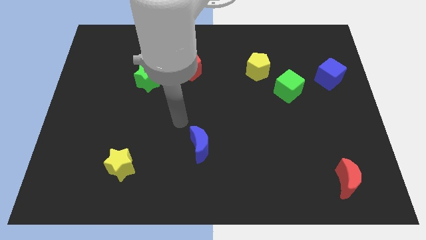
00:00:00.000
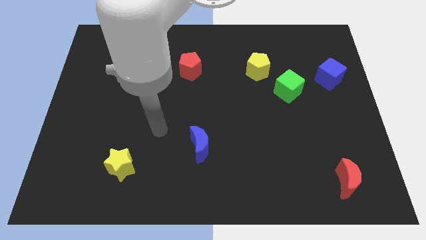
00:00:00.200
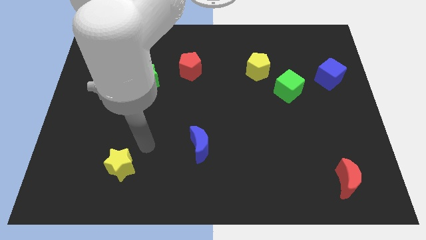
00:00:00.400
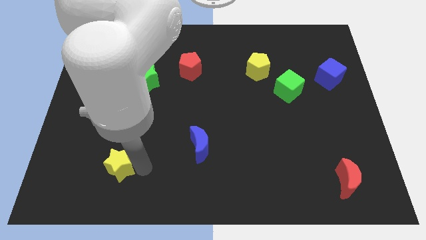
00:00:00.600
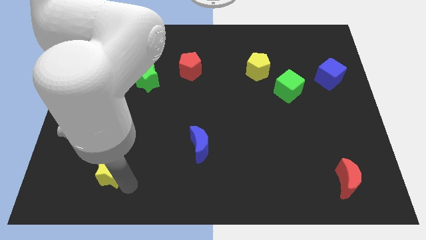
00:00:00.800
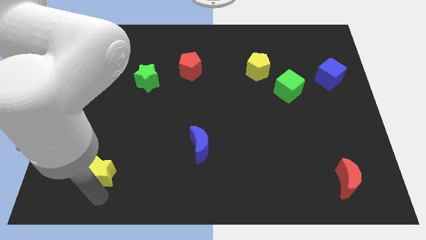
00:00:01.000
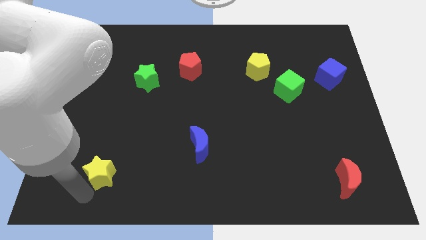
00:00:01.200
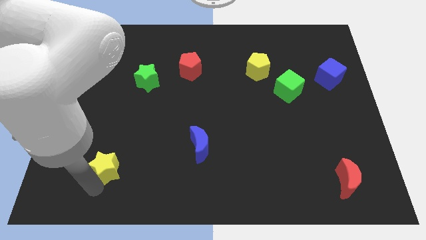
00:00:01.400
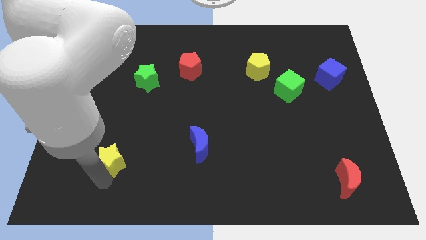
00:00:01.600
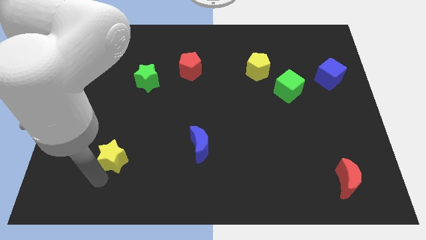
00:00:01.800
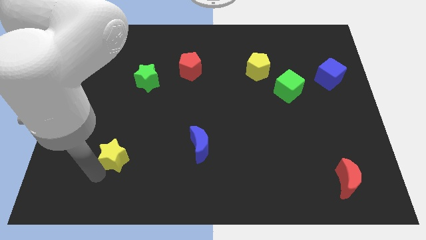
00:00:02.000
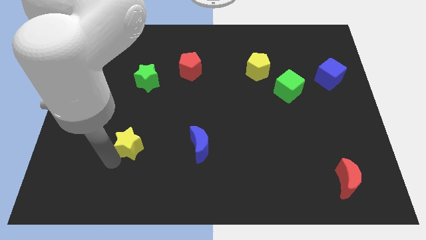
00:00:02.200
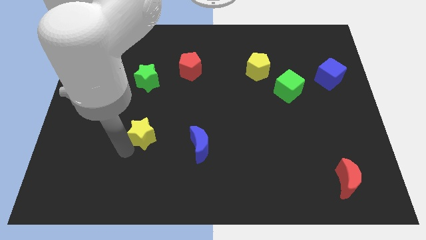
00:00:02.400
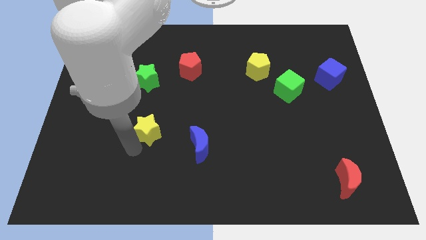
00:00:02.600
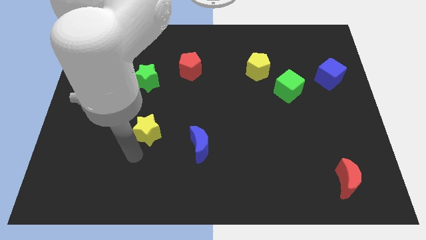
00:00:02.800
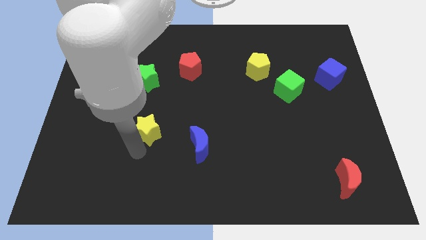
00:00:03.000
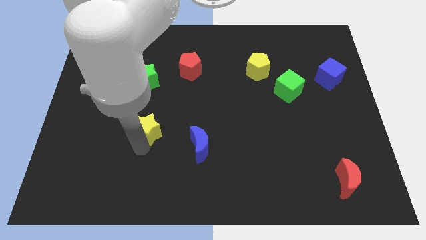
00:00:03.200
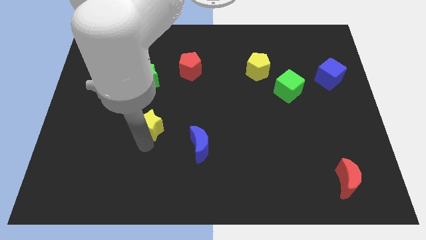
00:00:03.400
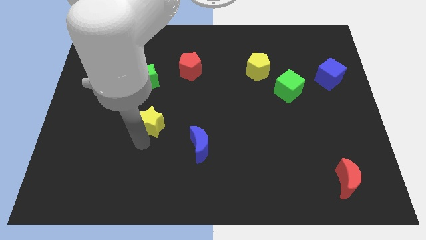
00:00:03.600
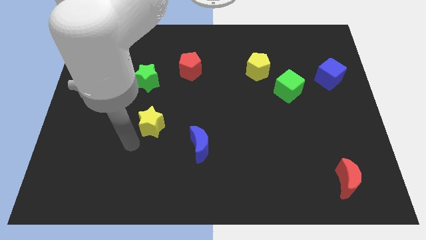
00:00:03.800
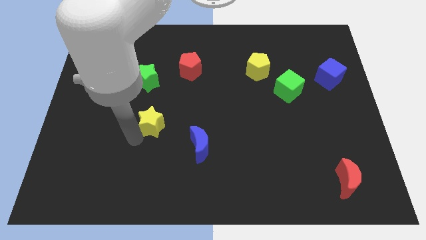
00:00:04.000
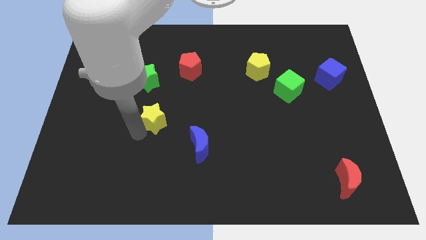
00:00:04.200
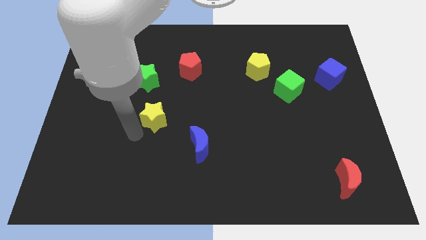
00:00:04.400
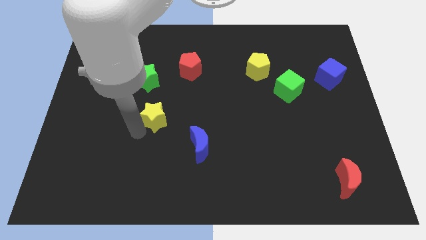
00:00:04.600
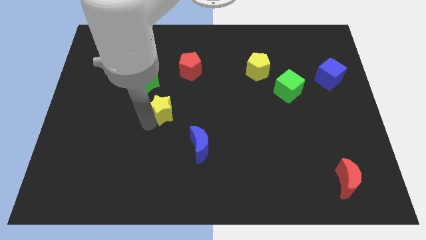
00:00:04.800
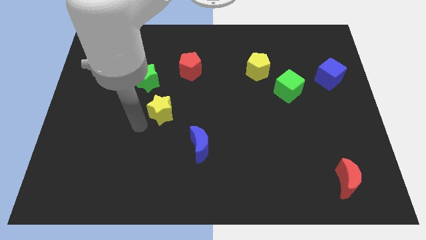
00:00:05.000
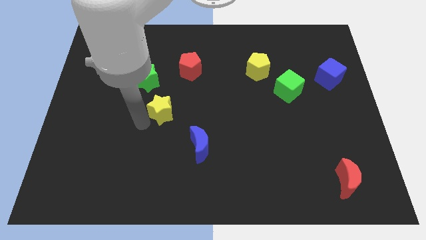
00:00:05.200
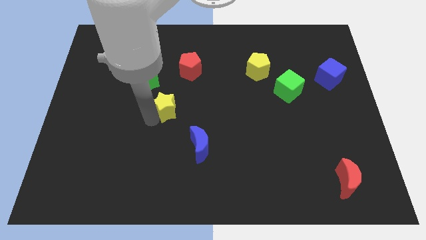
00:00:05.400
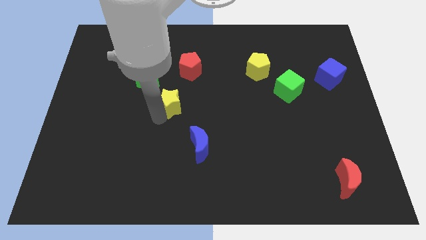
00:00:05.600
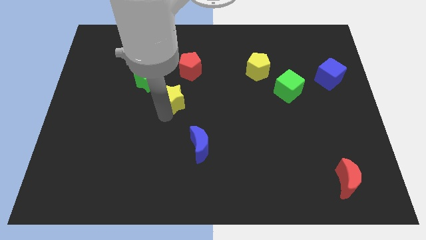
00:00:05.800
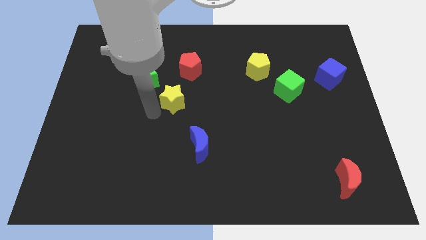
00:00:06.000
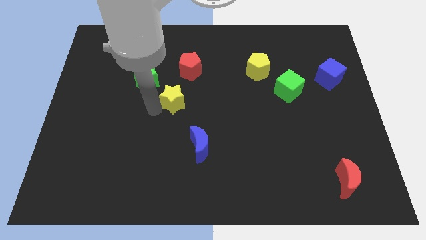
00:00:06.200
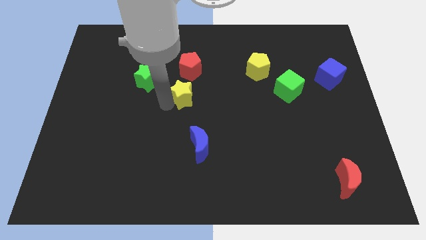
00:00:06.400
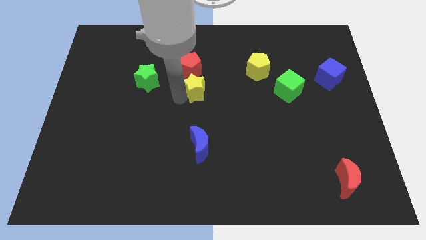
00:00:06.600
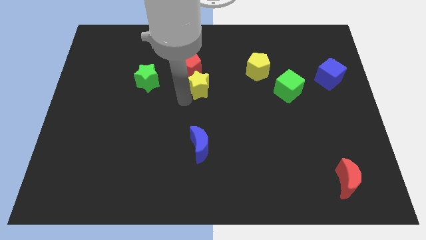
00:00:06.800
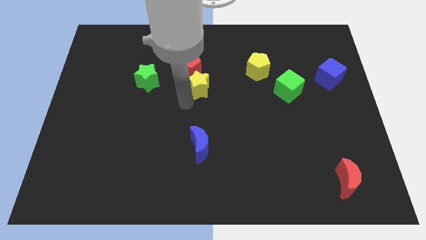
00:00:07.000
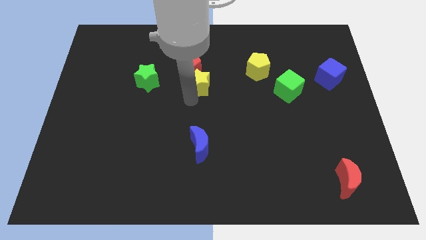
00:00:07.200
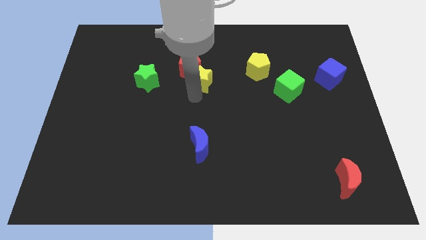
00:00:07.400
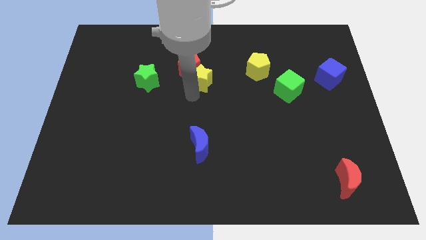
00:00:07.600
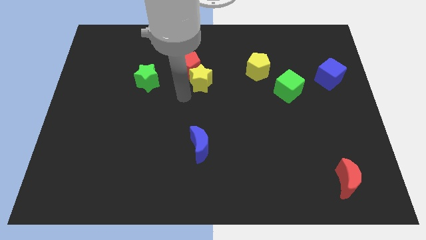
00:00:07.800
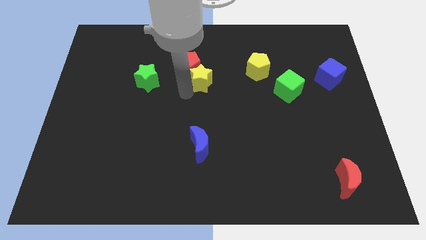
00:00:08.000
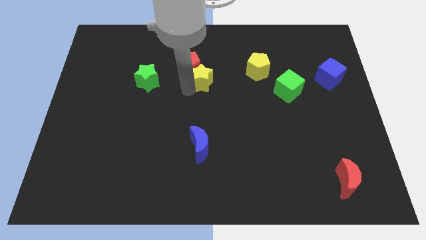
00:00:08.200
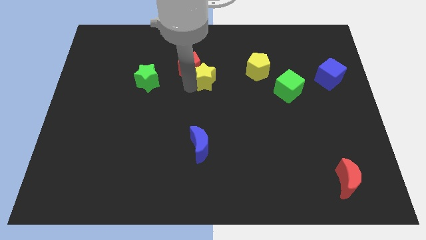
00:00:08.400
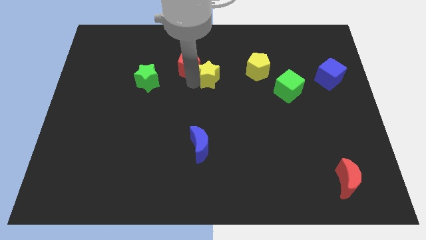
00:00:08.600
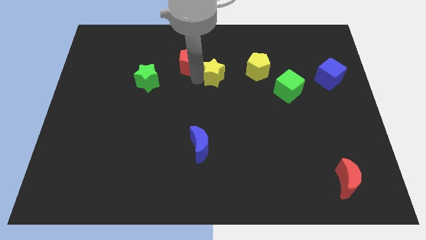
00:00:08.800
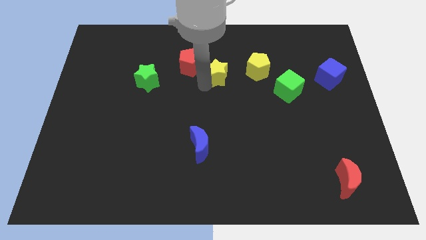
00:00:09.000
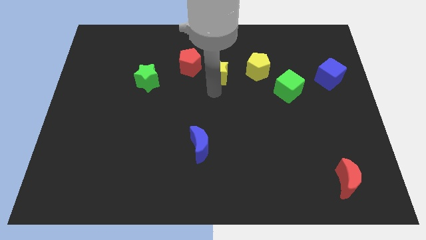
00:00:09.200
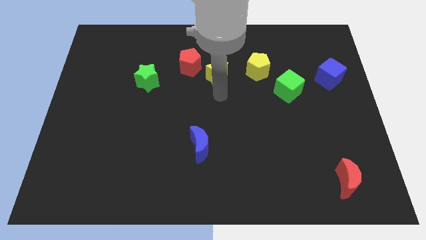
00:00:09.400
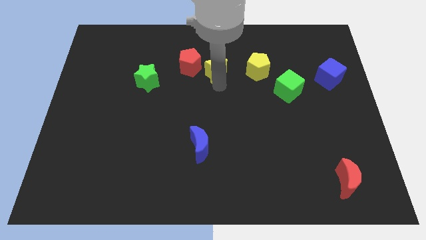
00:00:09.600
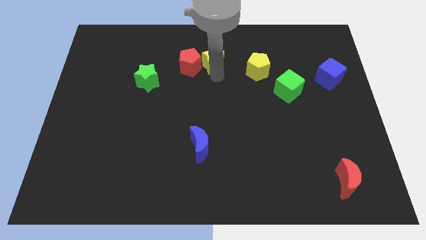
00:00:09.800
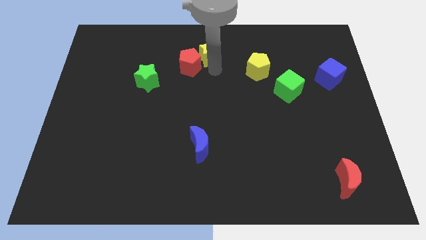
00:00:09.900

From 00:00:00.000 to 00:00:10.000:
put the yellow star to the top side

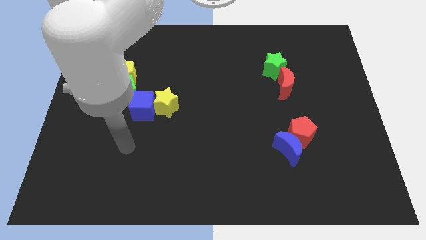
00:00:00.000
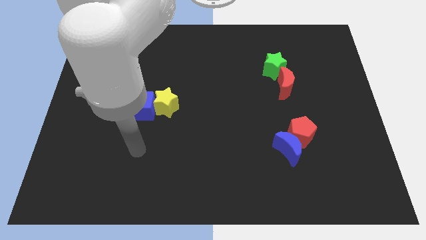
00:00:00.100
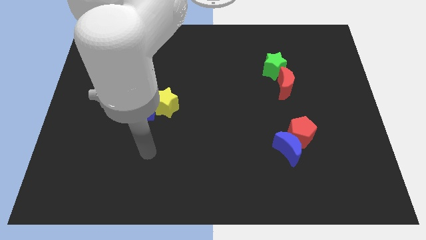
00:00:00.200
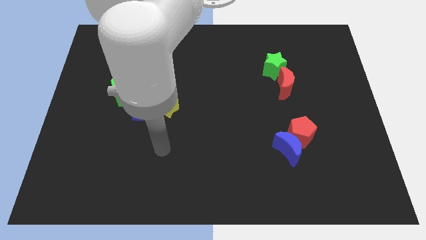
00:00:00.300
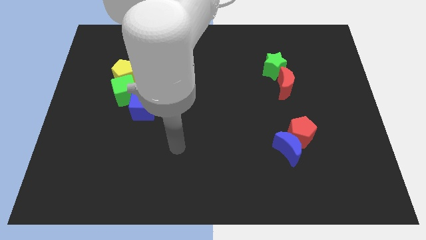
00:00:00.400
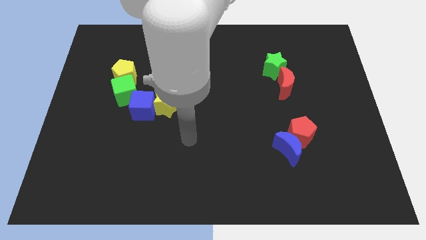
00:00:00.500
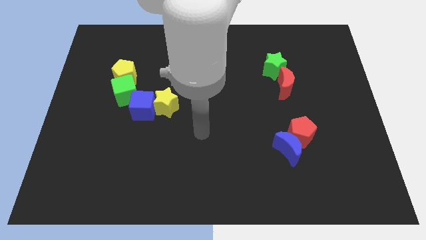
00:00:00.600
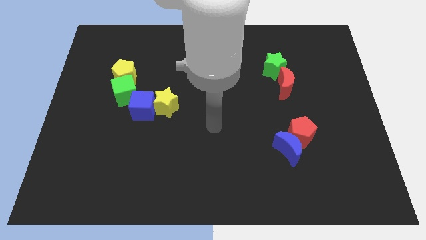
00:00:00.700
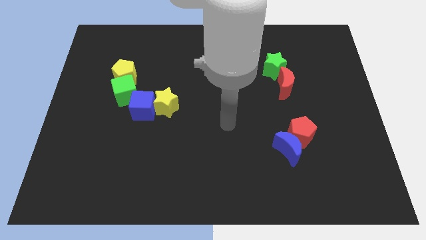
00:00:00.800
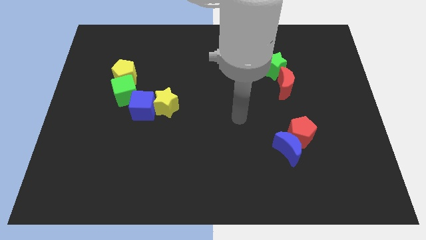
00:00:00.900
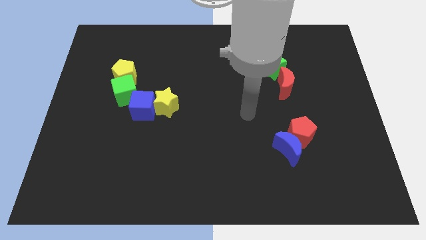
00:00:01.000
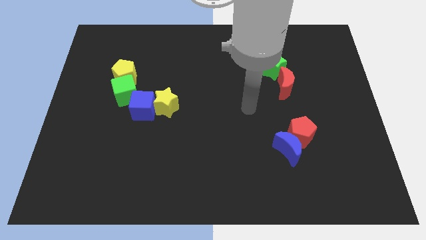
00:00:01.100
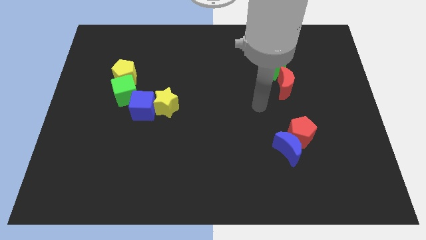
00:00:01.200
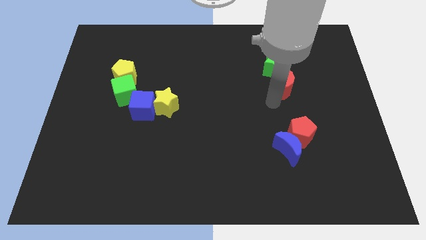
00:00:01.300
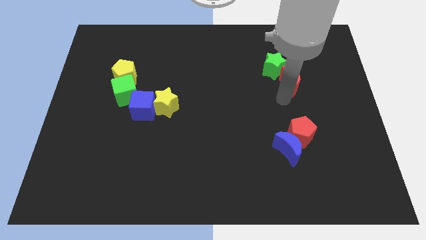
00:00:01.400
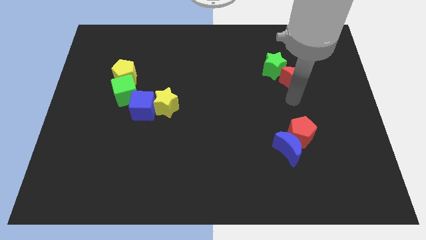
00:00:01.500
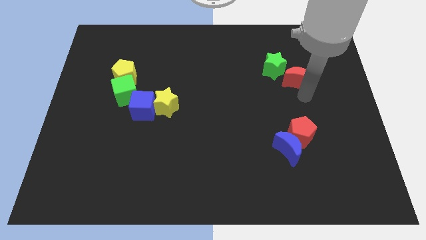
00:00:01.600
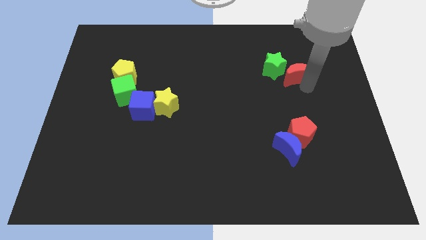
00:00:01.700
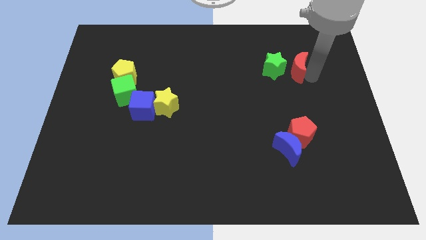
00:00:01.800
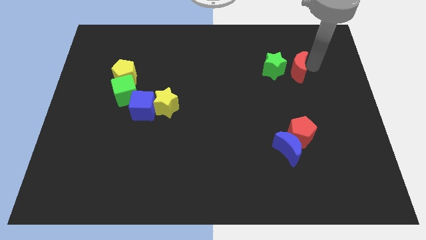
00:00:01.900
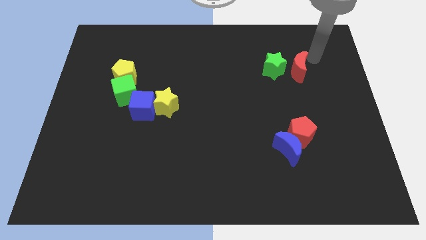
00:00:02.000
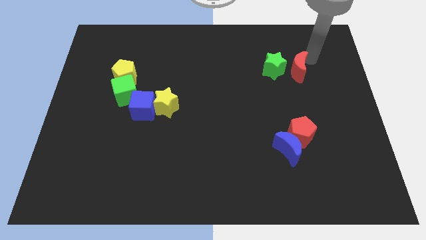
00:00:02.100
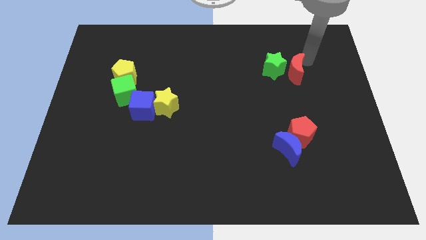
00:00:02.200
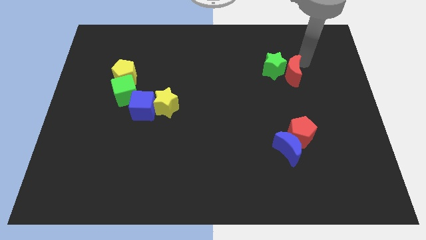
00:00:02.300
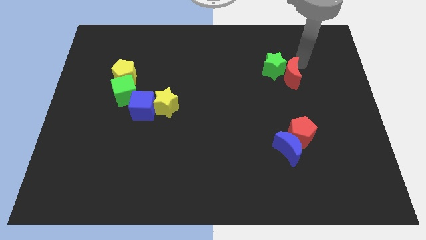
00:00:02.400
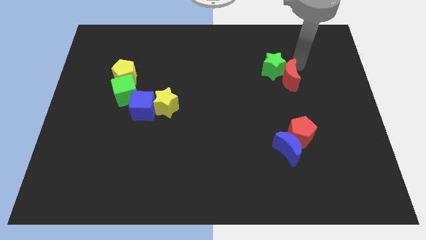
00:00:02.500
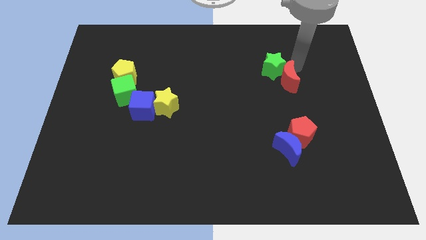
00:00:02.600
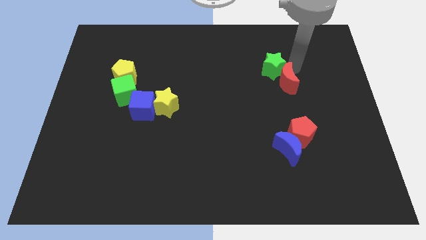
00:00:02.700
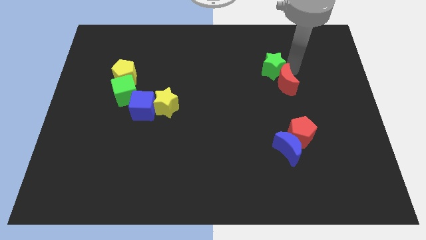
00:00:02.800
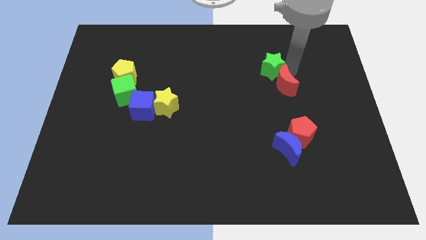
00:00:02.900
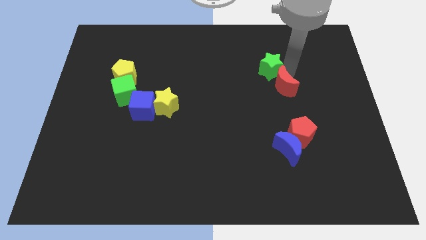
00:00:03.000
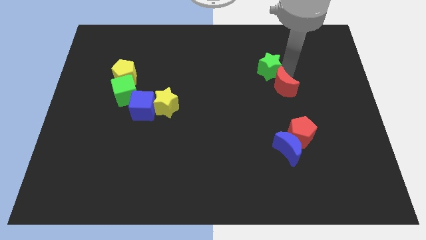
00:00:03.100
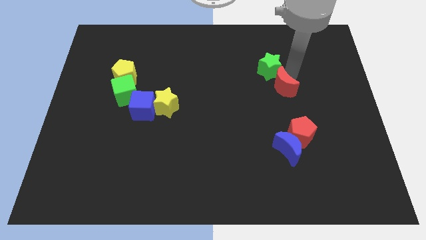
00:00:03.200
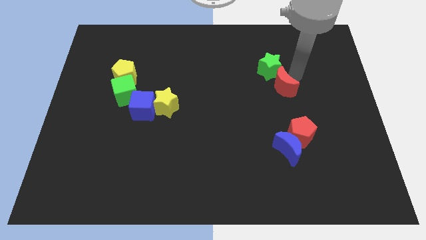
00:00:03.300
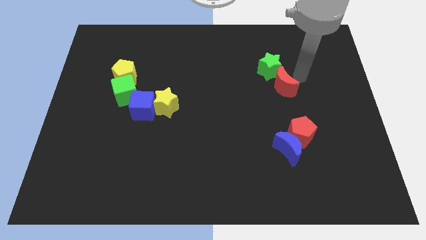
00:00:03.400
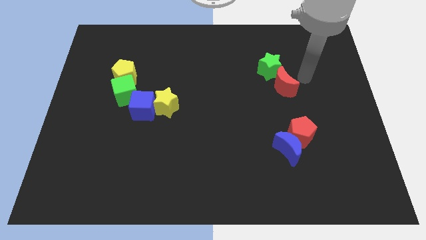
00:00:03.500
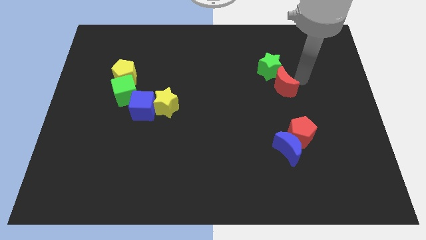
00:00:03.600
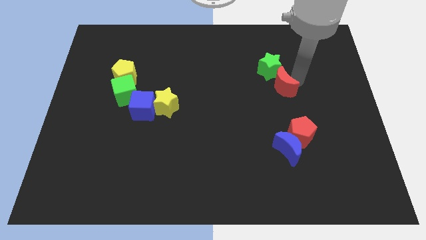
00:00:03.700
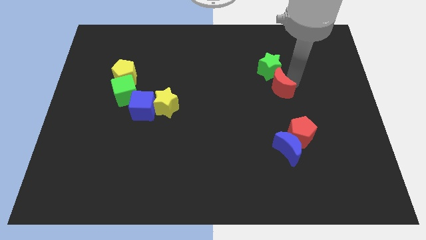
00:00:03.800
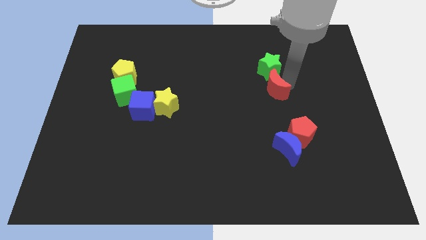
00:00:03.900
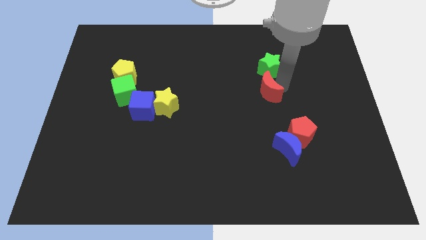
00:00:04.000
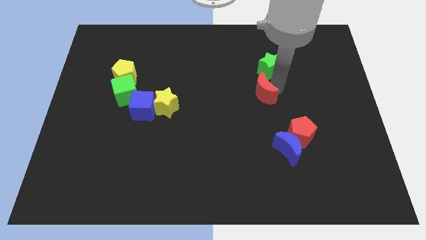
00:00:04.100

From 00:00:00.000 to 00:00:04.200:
push the red moon to the center
